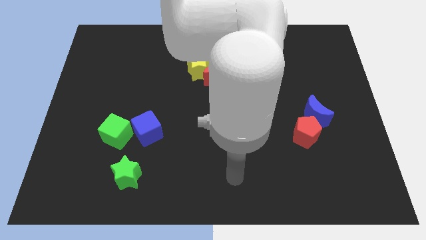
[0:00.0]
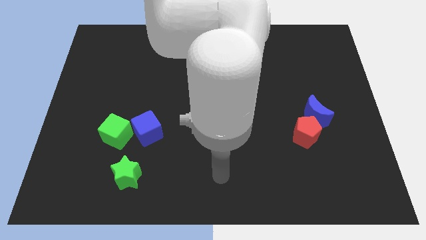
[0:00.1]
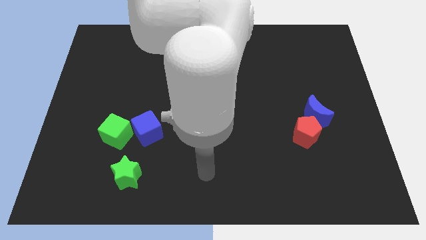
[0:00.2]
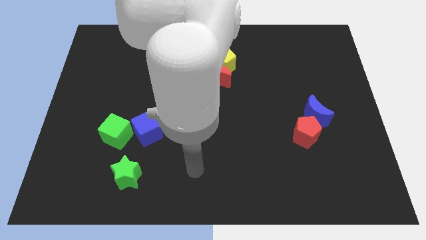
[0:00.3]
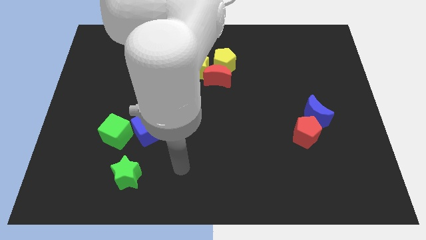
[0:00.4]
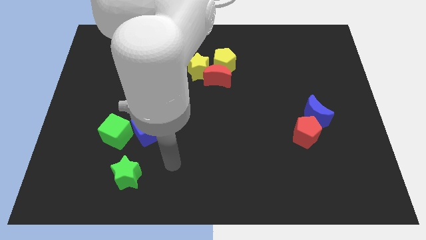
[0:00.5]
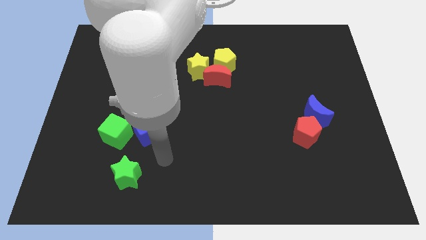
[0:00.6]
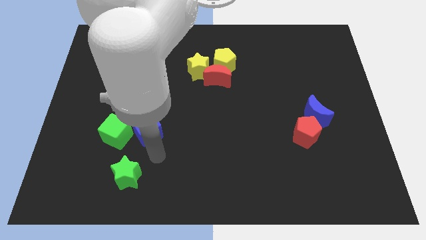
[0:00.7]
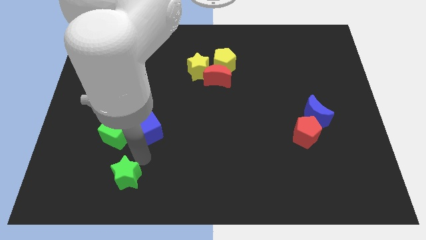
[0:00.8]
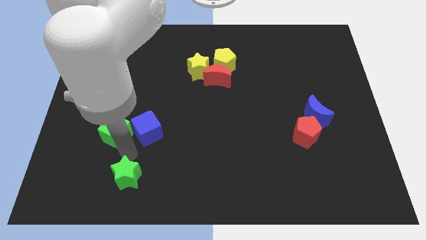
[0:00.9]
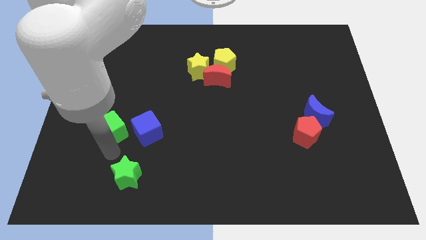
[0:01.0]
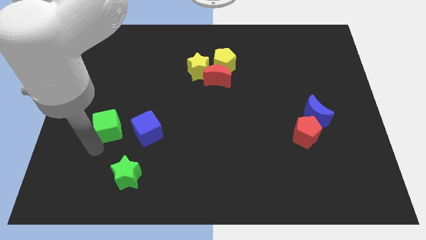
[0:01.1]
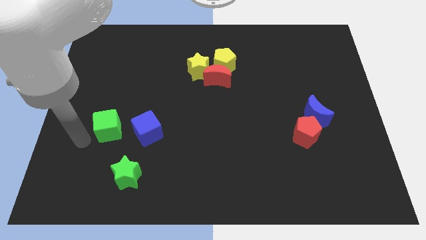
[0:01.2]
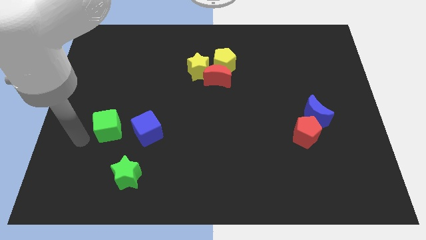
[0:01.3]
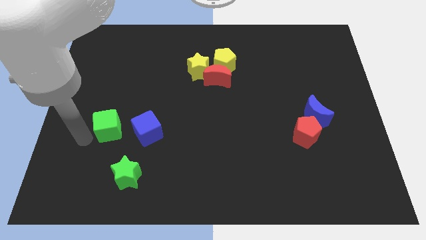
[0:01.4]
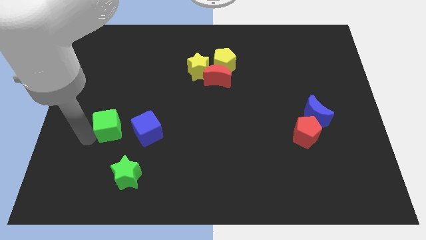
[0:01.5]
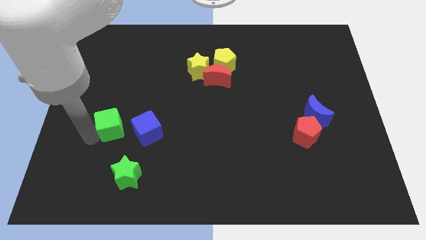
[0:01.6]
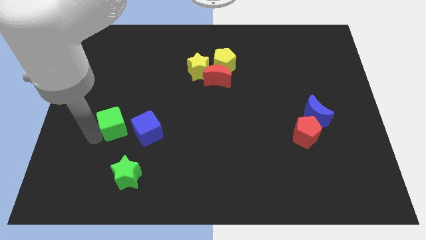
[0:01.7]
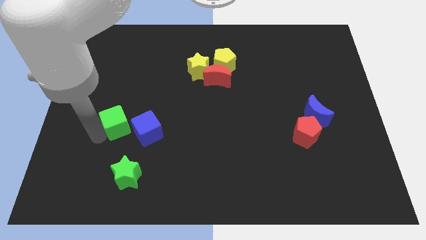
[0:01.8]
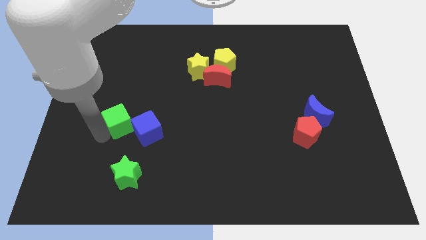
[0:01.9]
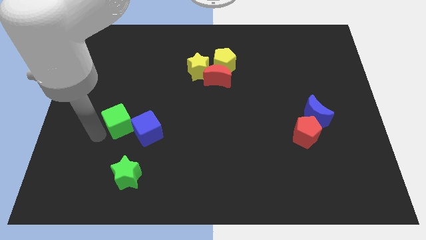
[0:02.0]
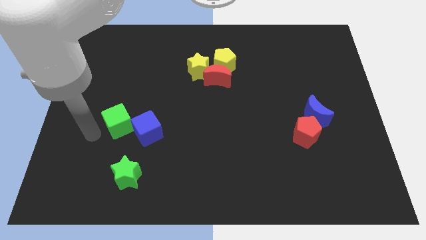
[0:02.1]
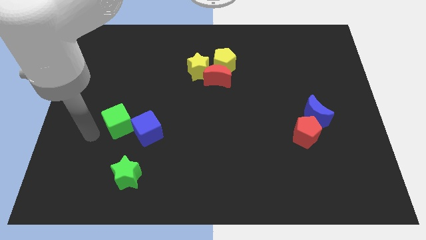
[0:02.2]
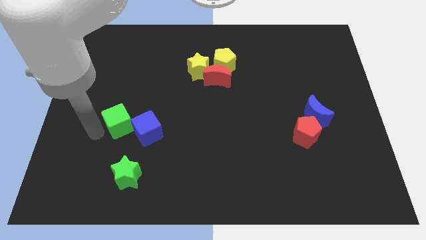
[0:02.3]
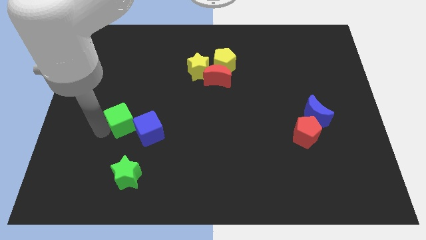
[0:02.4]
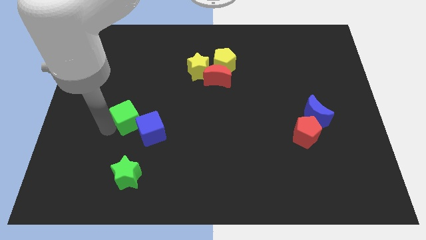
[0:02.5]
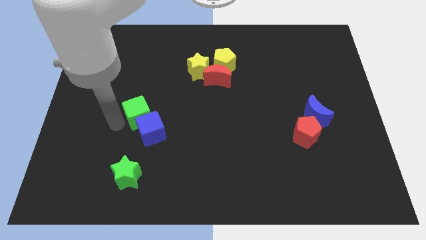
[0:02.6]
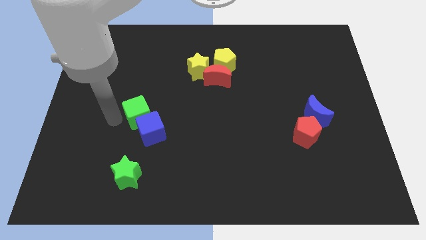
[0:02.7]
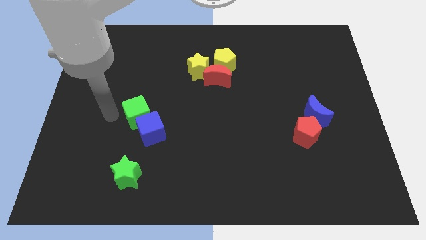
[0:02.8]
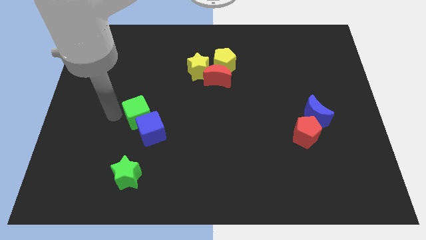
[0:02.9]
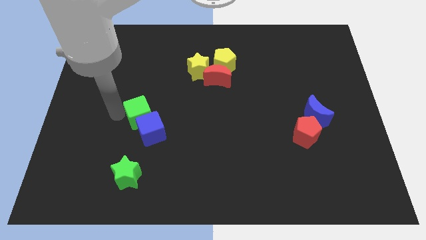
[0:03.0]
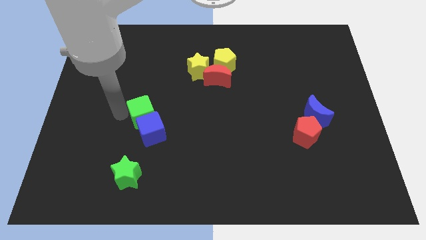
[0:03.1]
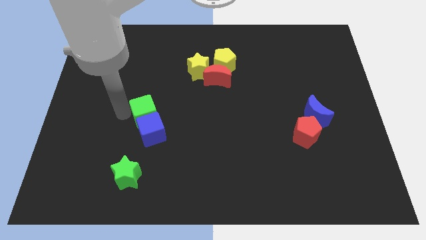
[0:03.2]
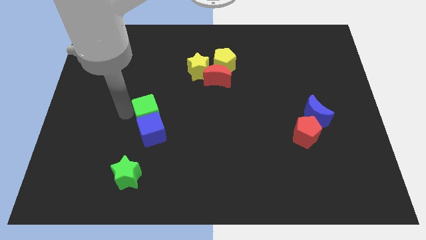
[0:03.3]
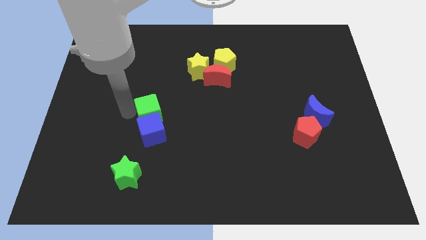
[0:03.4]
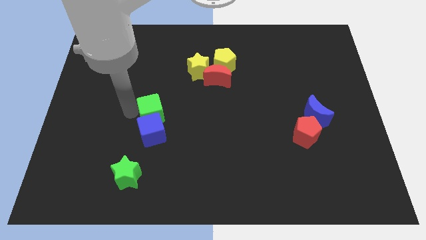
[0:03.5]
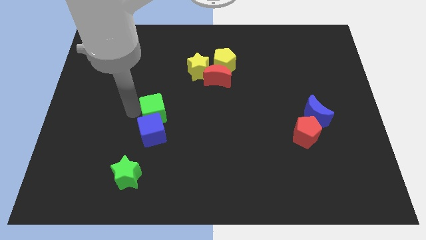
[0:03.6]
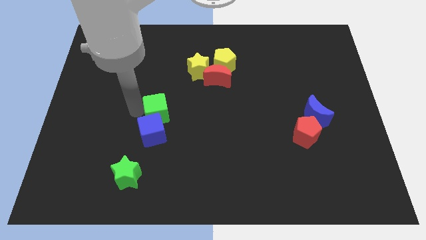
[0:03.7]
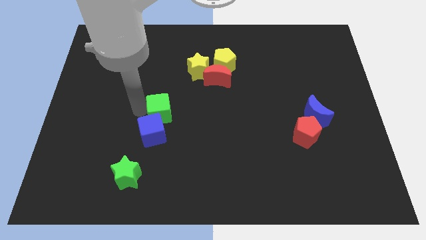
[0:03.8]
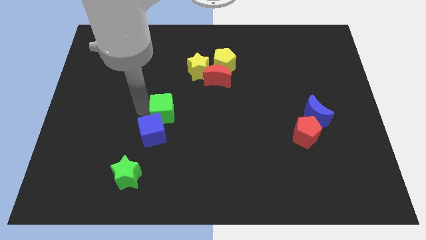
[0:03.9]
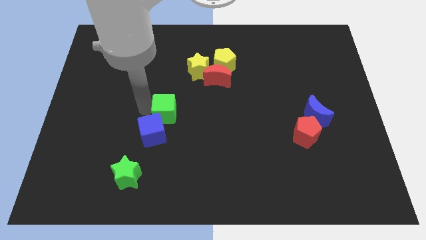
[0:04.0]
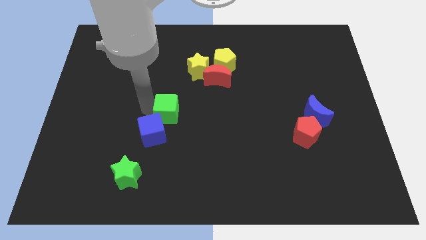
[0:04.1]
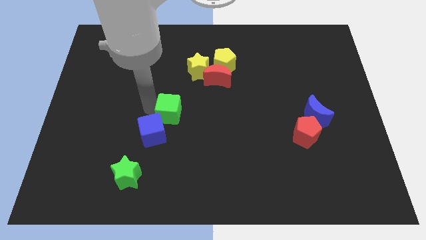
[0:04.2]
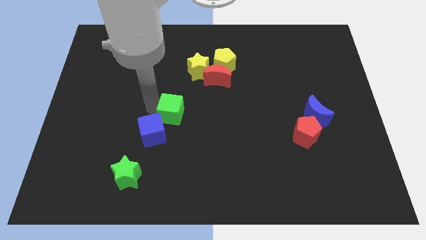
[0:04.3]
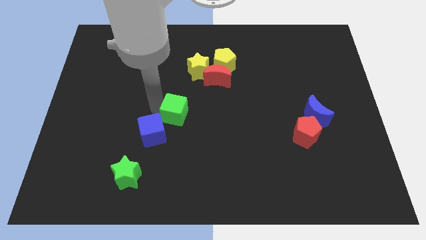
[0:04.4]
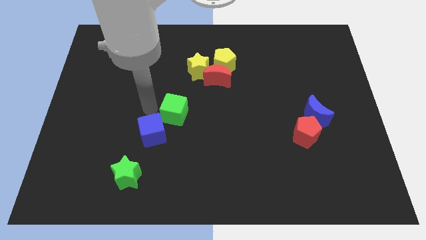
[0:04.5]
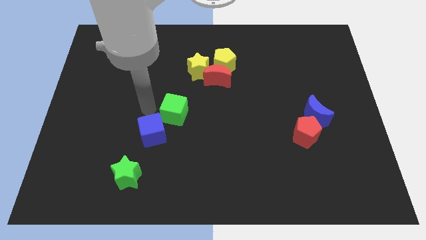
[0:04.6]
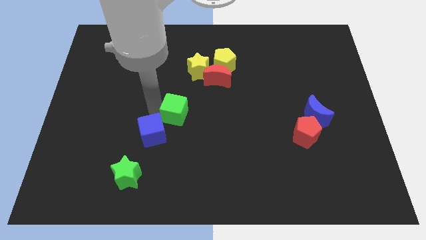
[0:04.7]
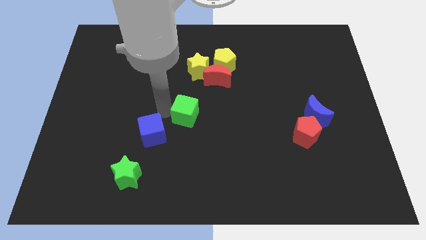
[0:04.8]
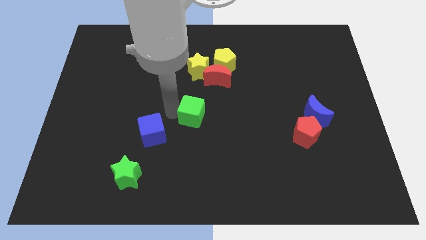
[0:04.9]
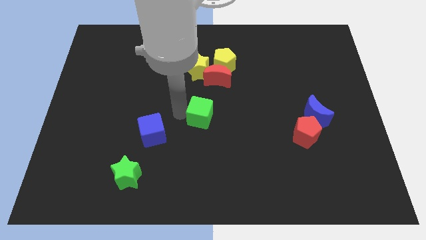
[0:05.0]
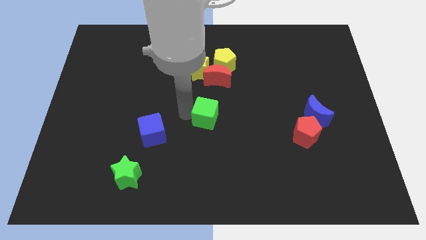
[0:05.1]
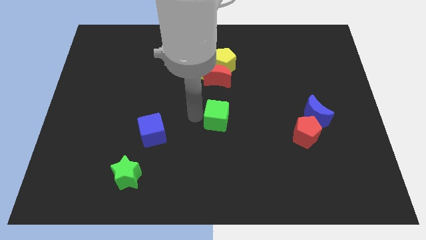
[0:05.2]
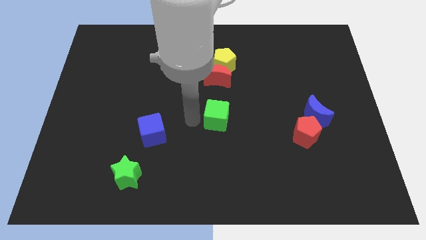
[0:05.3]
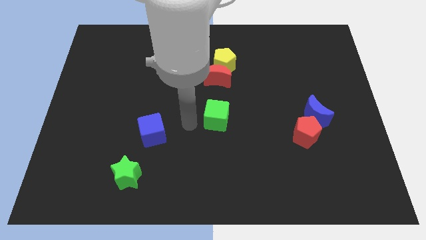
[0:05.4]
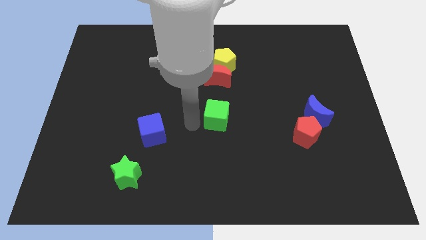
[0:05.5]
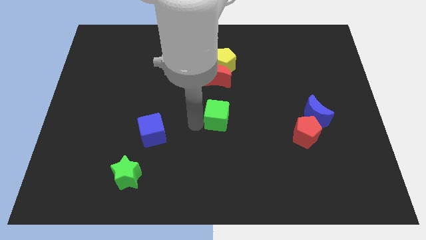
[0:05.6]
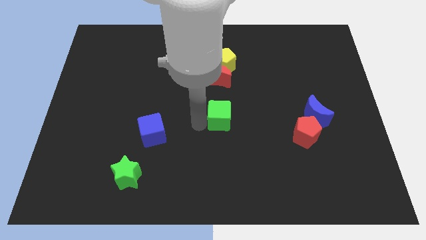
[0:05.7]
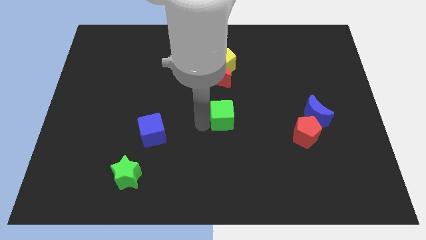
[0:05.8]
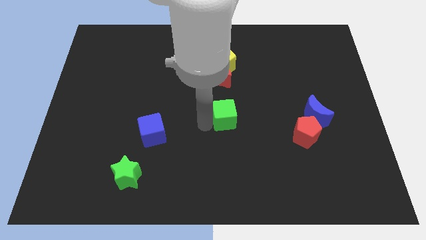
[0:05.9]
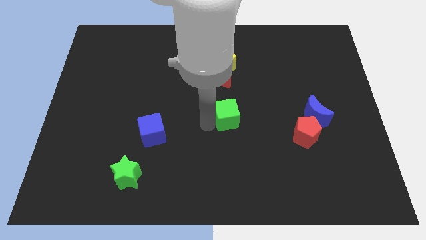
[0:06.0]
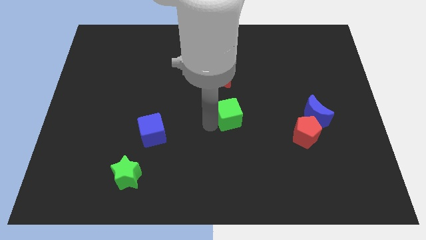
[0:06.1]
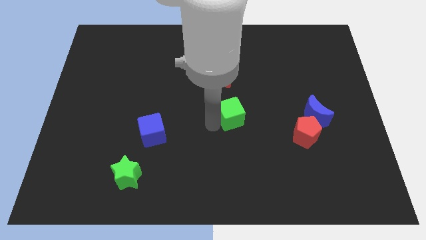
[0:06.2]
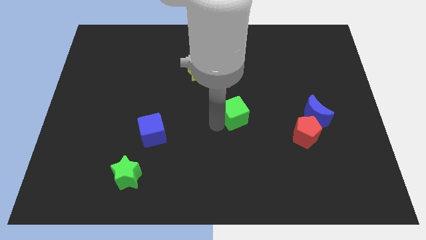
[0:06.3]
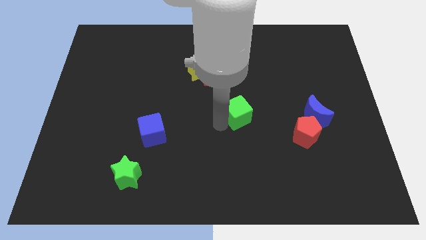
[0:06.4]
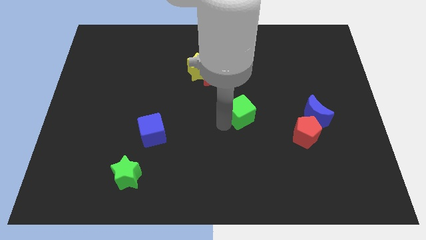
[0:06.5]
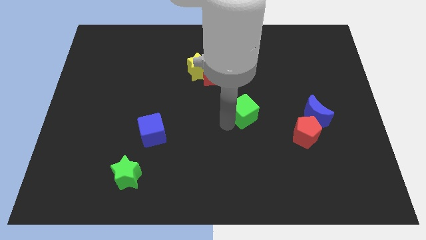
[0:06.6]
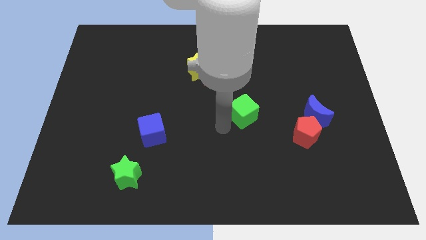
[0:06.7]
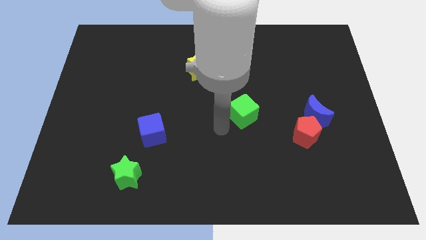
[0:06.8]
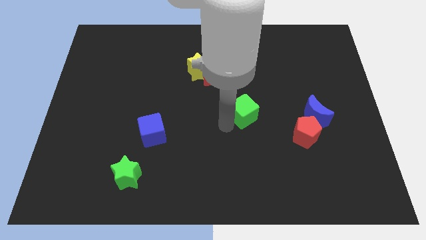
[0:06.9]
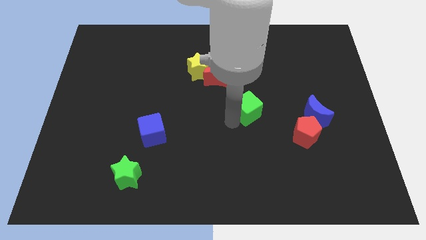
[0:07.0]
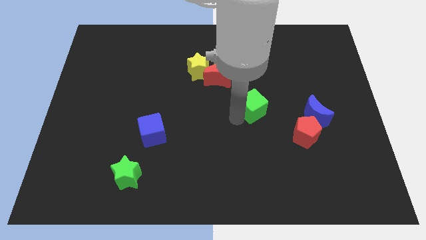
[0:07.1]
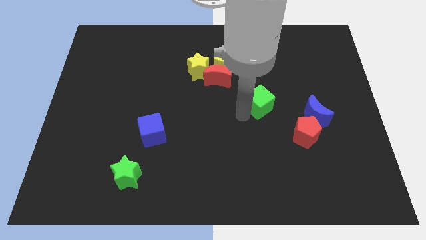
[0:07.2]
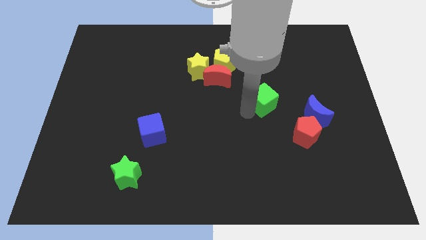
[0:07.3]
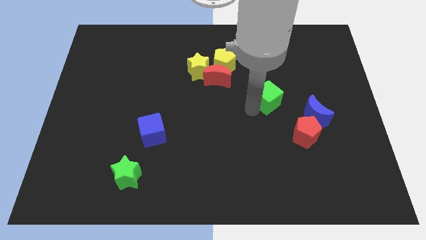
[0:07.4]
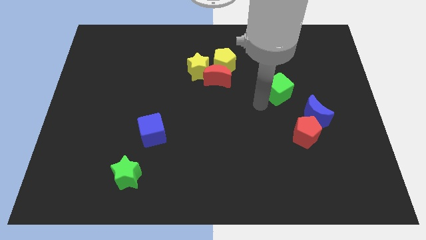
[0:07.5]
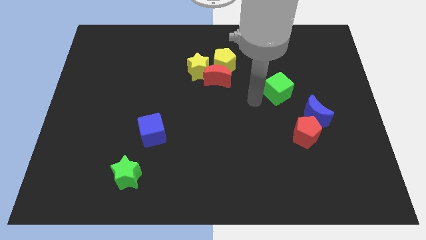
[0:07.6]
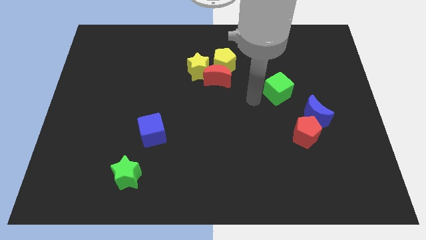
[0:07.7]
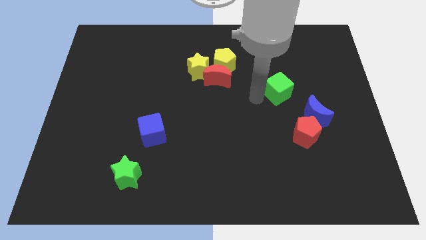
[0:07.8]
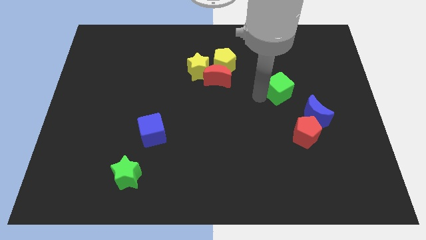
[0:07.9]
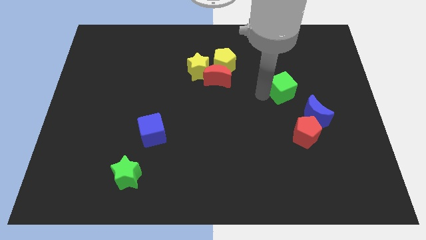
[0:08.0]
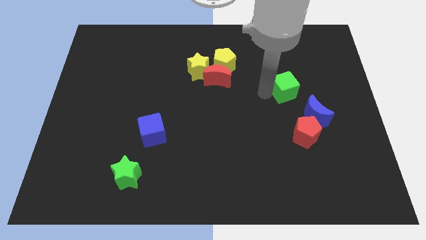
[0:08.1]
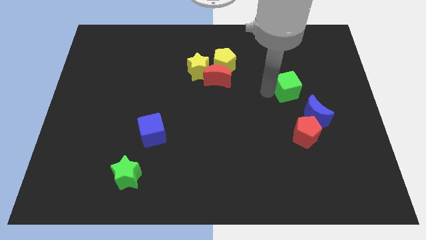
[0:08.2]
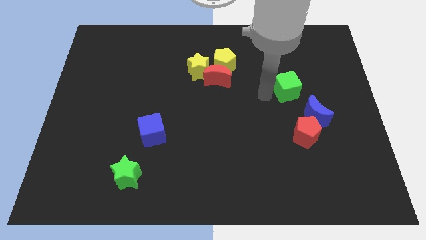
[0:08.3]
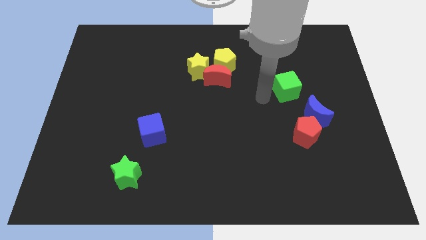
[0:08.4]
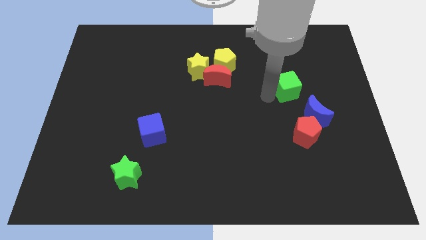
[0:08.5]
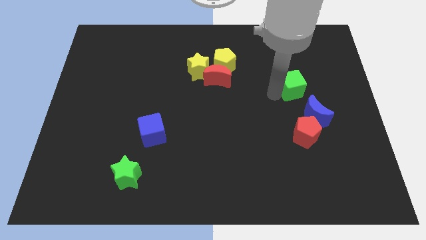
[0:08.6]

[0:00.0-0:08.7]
move the green cube to the top of the blue moon
